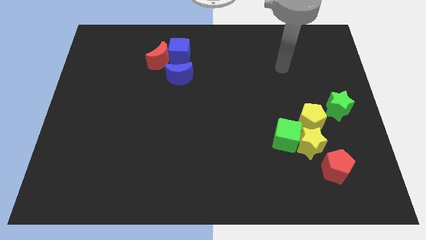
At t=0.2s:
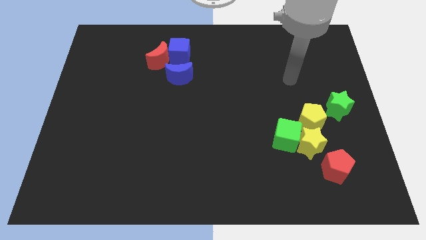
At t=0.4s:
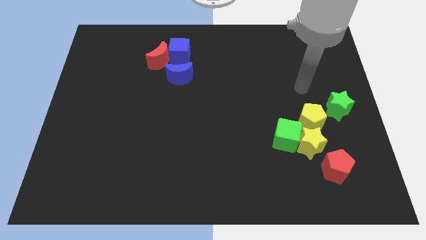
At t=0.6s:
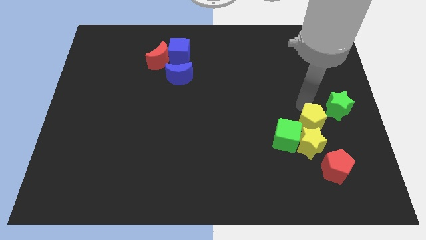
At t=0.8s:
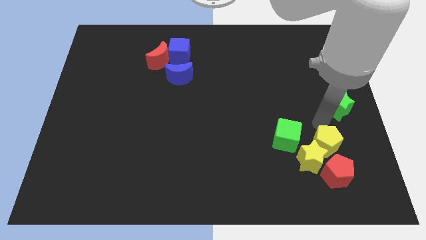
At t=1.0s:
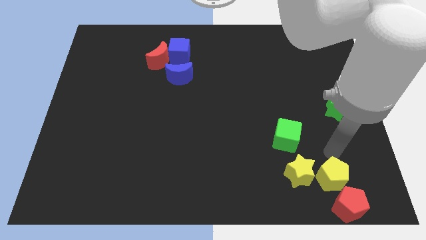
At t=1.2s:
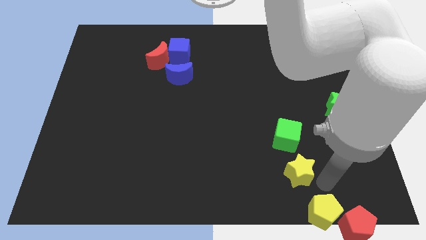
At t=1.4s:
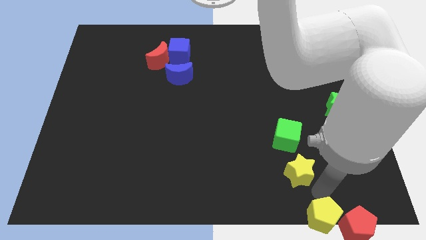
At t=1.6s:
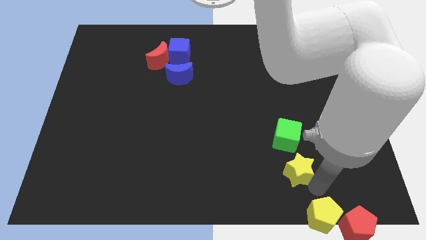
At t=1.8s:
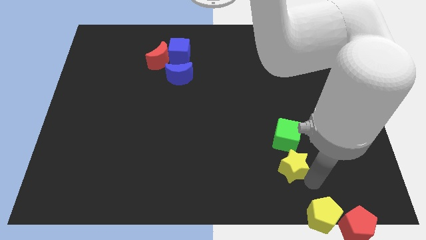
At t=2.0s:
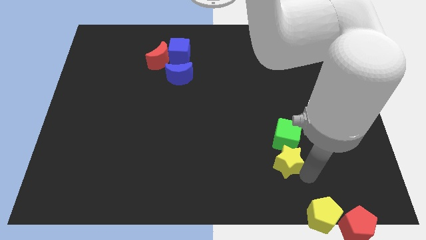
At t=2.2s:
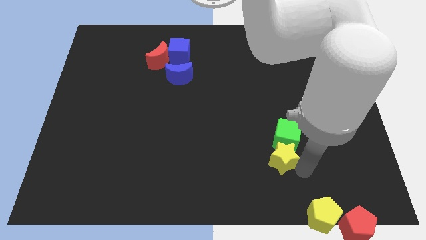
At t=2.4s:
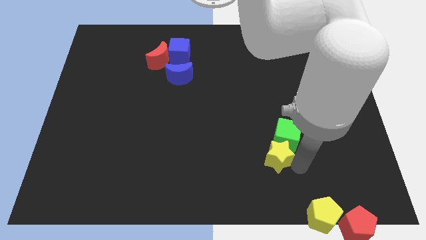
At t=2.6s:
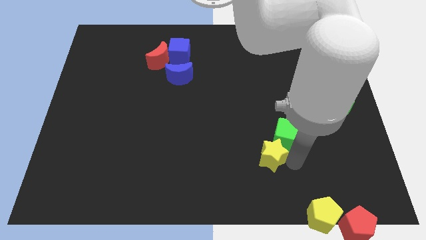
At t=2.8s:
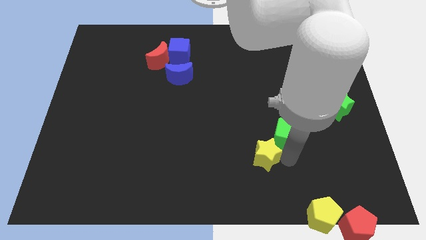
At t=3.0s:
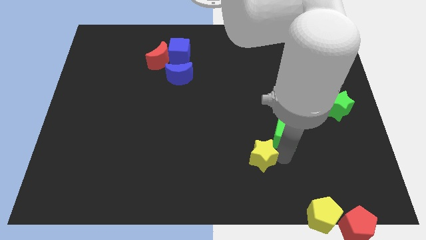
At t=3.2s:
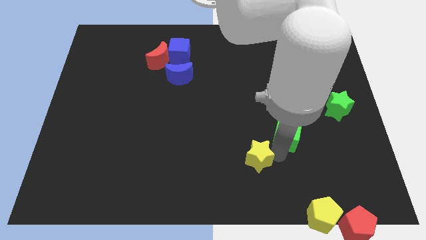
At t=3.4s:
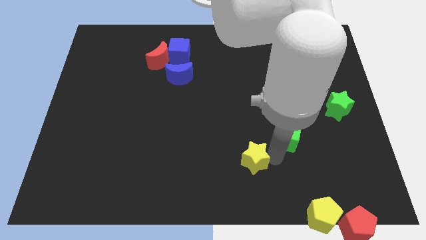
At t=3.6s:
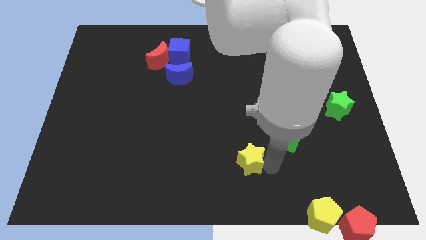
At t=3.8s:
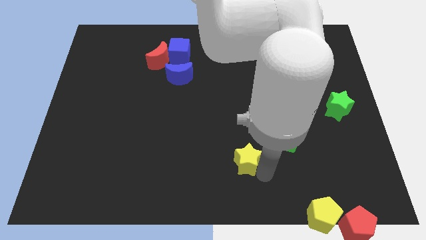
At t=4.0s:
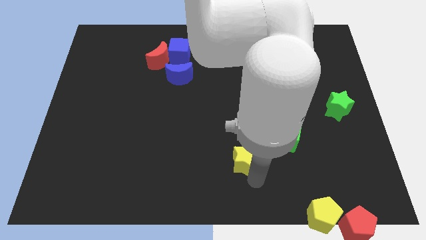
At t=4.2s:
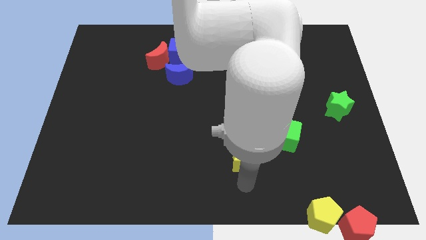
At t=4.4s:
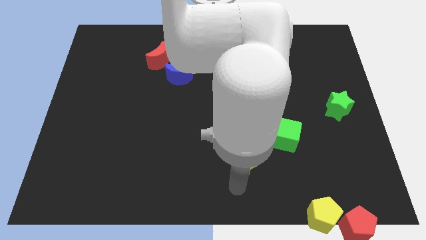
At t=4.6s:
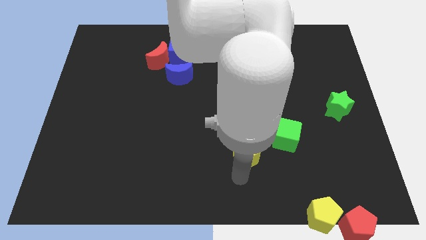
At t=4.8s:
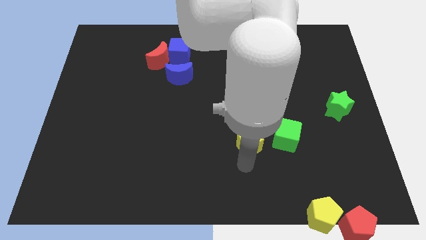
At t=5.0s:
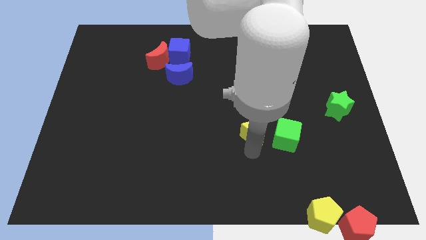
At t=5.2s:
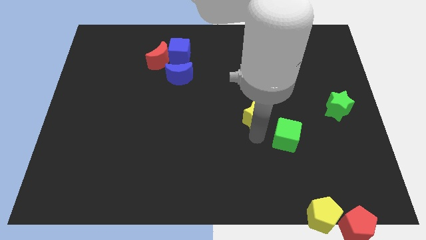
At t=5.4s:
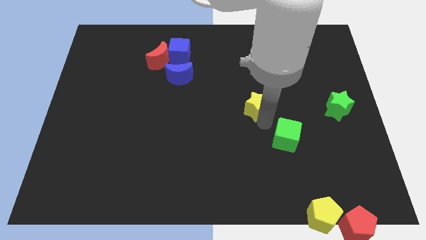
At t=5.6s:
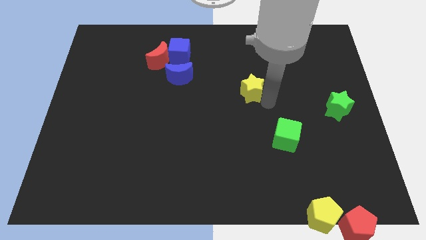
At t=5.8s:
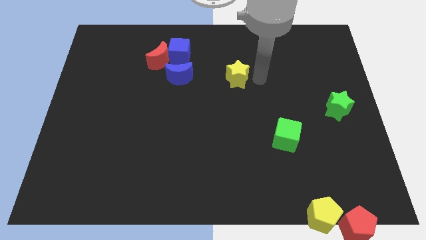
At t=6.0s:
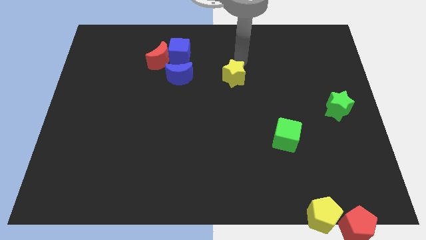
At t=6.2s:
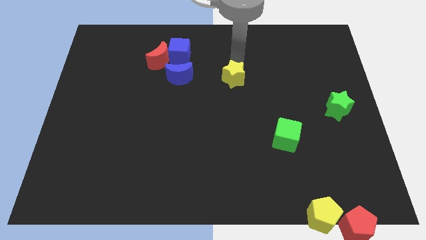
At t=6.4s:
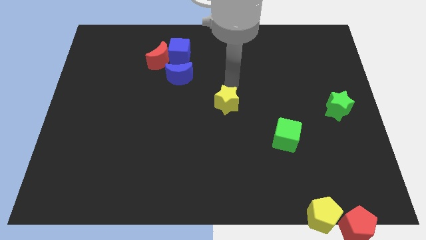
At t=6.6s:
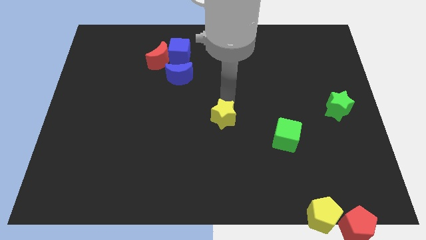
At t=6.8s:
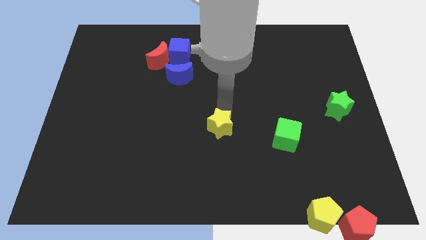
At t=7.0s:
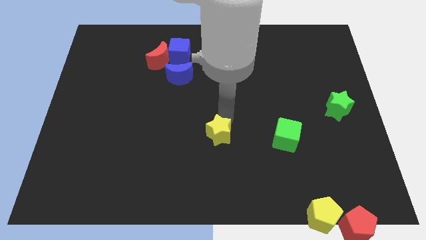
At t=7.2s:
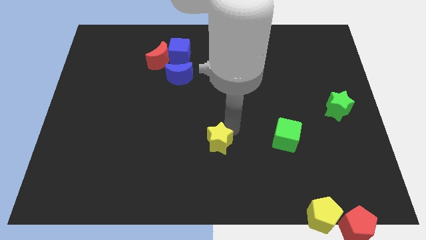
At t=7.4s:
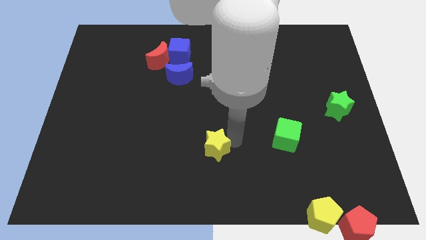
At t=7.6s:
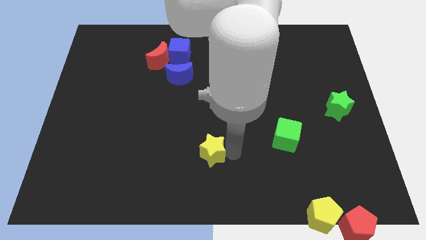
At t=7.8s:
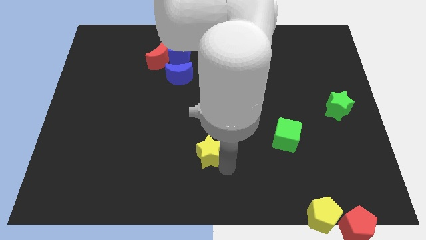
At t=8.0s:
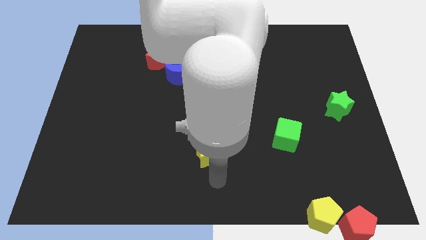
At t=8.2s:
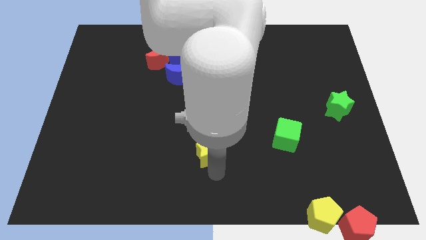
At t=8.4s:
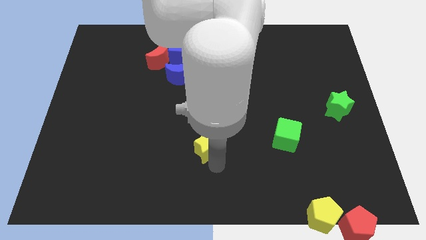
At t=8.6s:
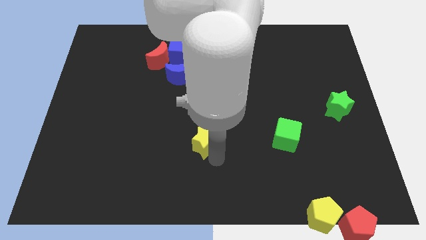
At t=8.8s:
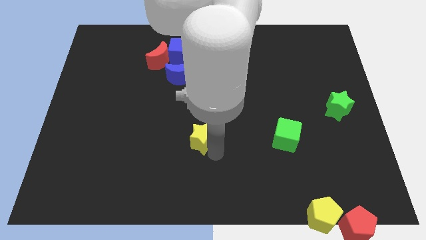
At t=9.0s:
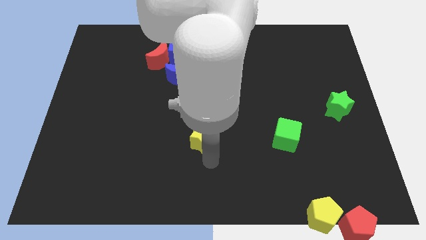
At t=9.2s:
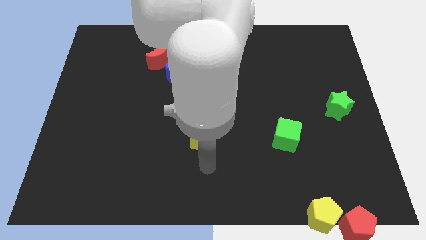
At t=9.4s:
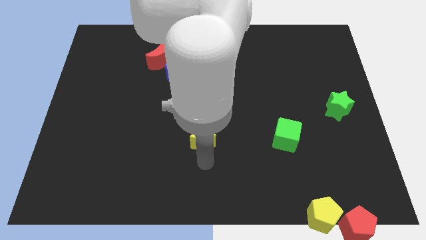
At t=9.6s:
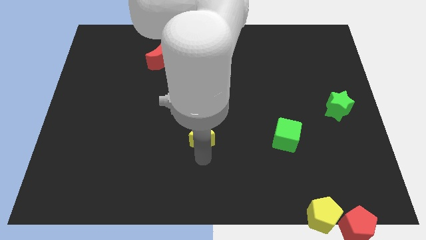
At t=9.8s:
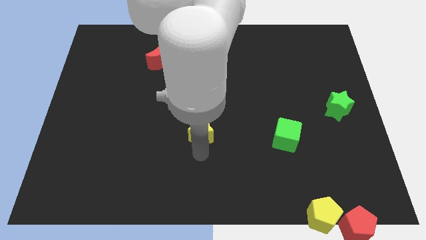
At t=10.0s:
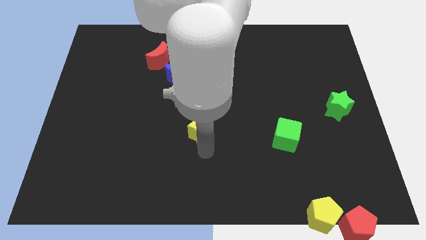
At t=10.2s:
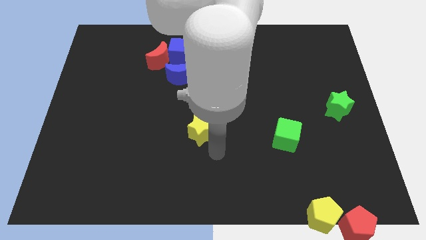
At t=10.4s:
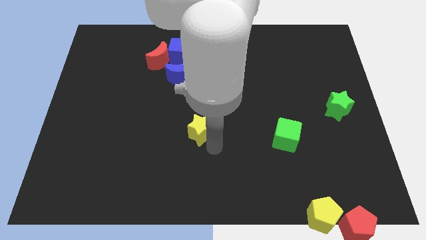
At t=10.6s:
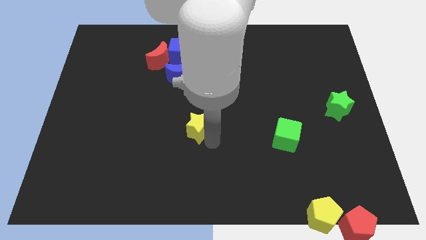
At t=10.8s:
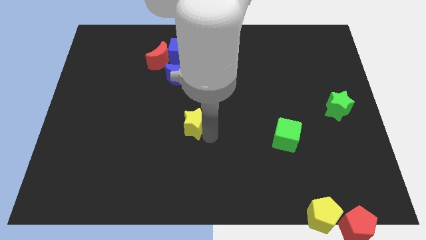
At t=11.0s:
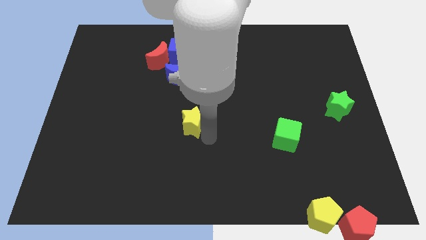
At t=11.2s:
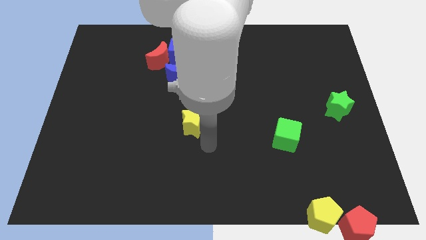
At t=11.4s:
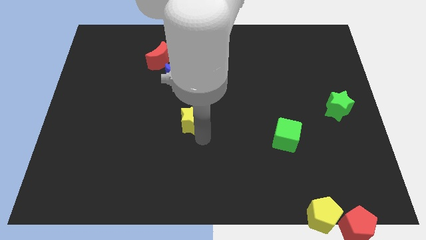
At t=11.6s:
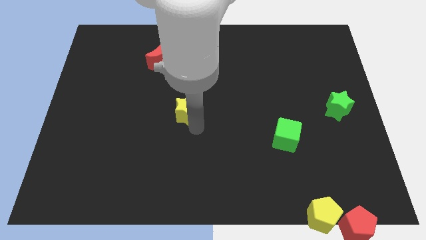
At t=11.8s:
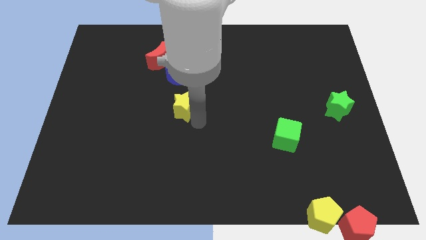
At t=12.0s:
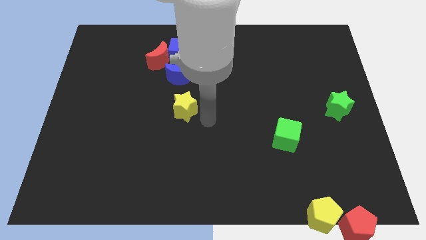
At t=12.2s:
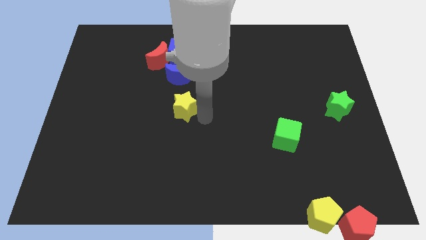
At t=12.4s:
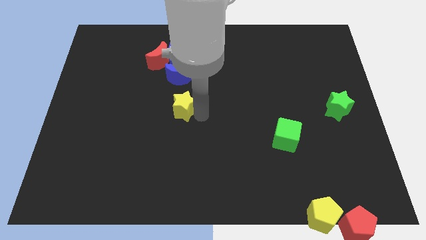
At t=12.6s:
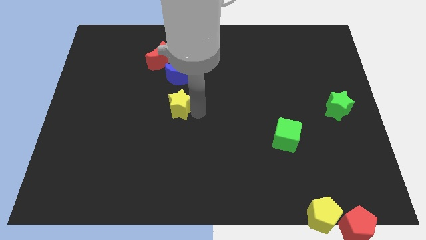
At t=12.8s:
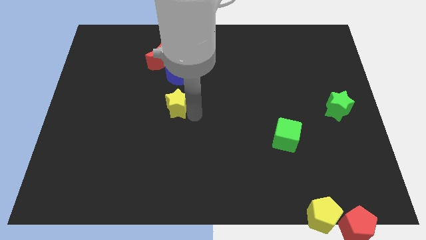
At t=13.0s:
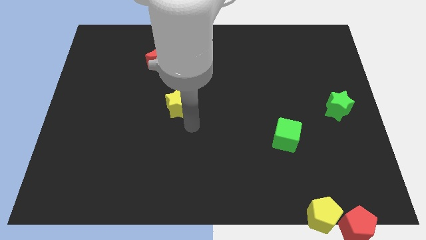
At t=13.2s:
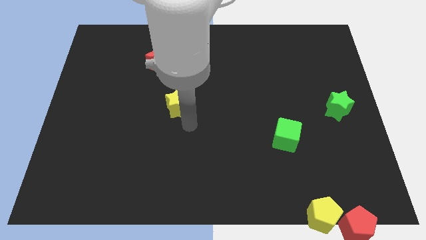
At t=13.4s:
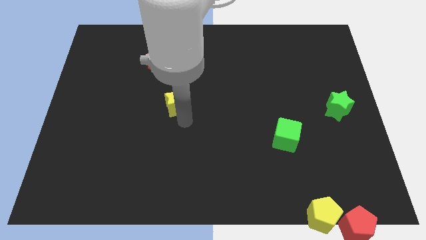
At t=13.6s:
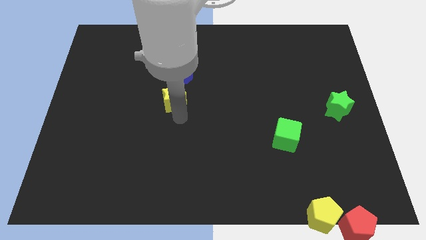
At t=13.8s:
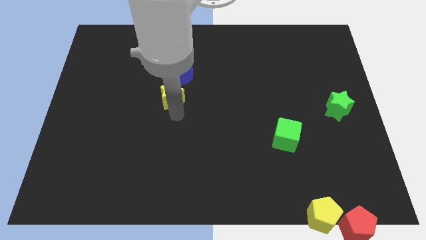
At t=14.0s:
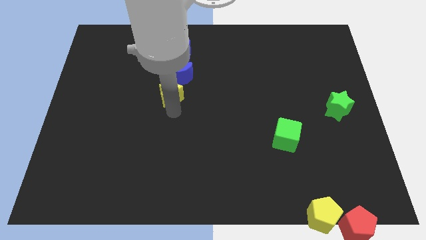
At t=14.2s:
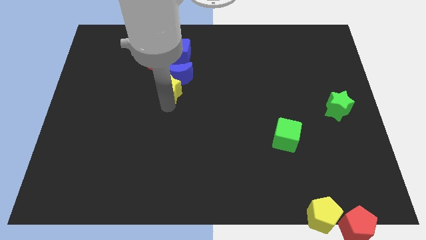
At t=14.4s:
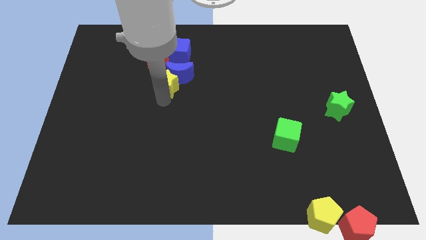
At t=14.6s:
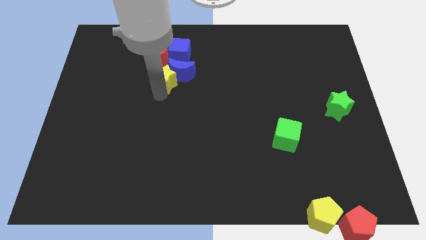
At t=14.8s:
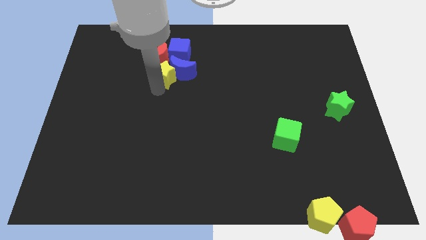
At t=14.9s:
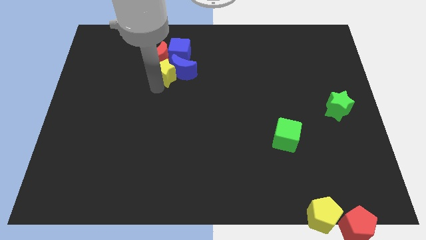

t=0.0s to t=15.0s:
put the yellow star next to the red moon

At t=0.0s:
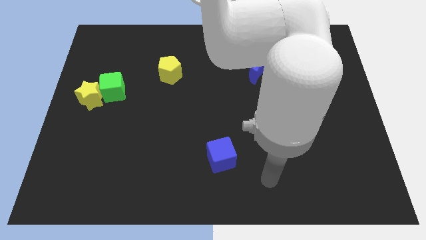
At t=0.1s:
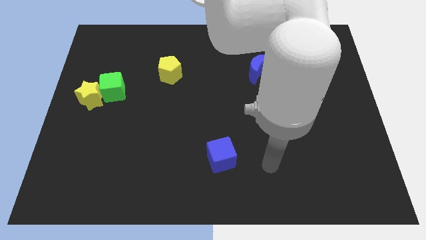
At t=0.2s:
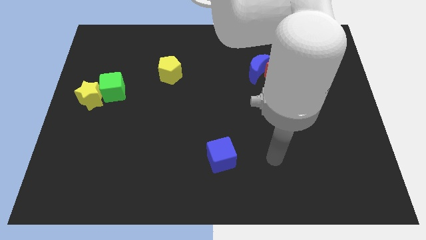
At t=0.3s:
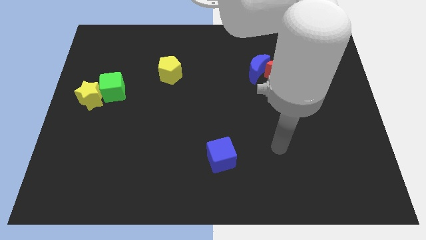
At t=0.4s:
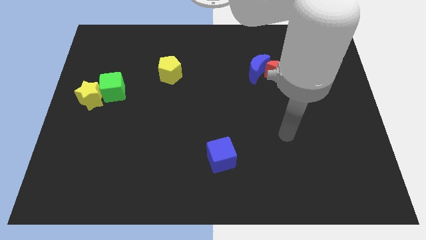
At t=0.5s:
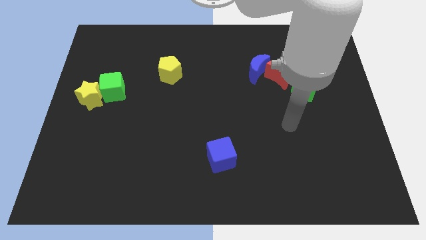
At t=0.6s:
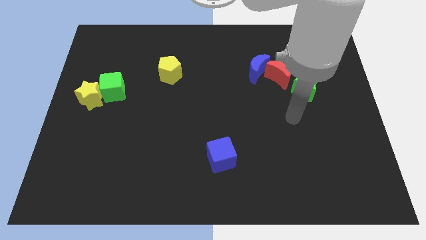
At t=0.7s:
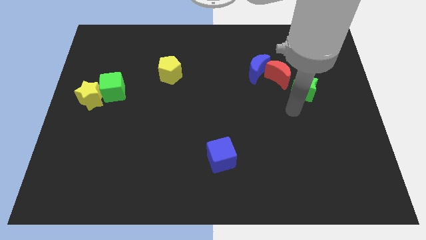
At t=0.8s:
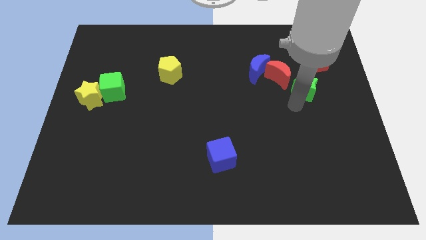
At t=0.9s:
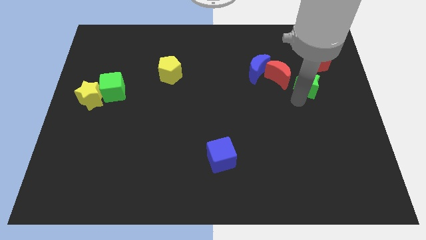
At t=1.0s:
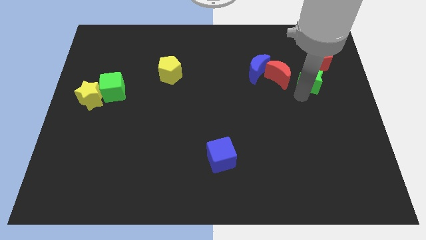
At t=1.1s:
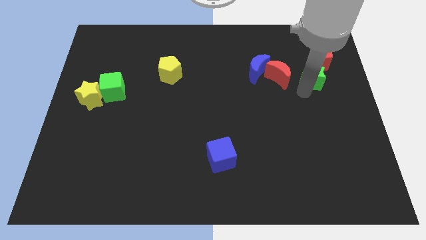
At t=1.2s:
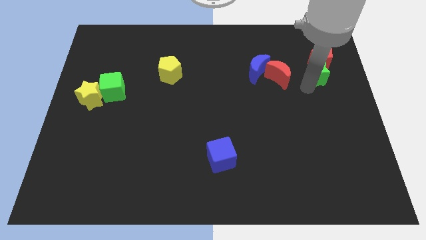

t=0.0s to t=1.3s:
put the green star close to the red pentagon
